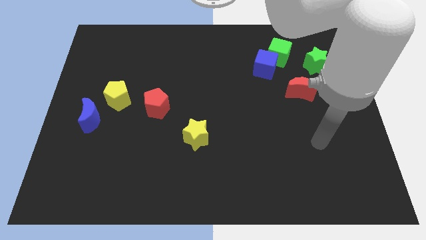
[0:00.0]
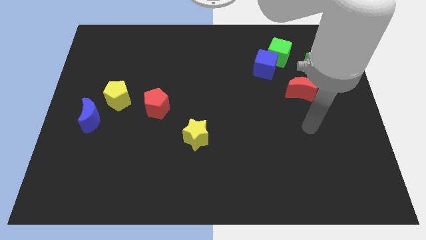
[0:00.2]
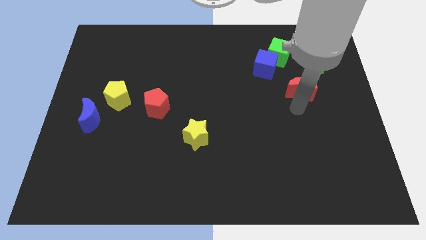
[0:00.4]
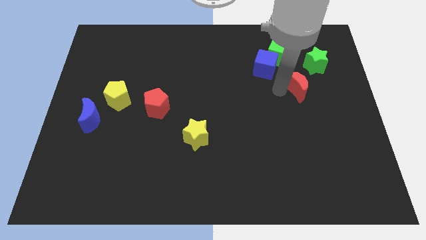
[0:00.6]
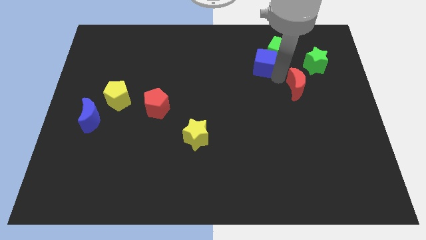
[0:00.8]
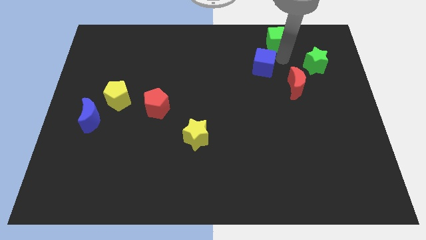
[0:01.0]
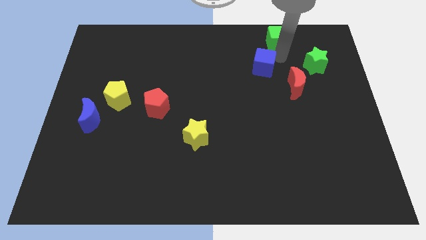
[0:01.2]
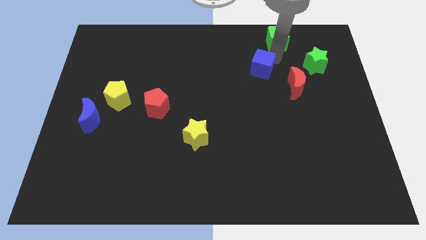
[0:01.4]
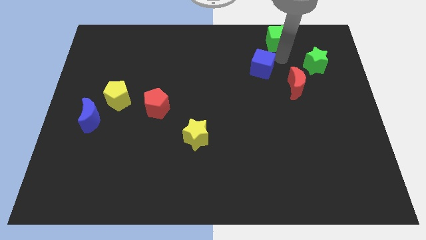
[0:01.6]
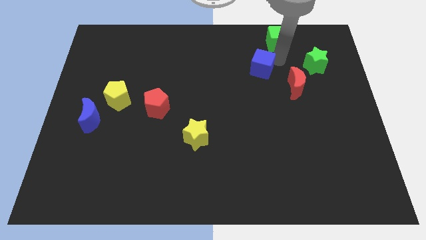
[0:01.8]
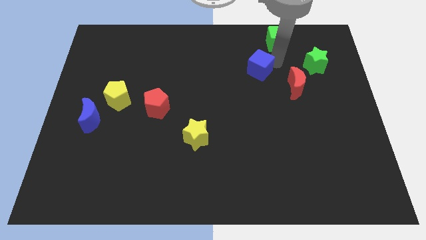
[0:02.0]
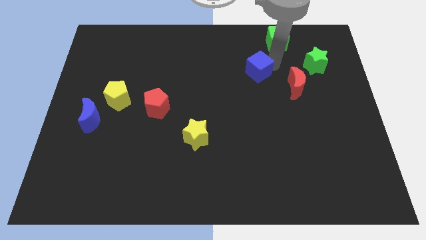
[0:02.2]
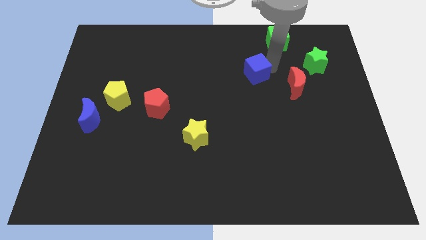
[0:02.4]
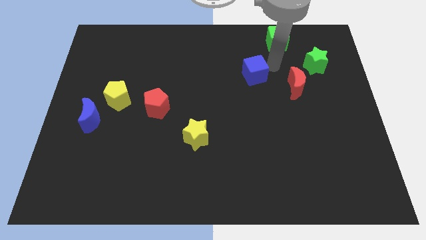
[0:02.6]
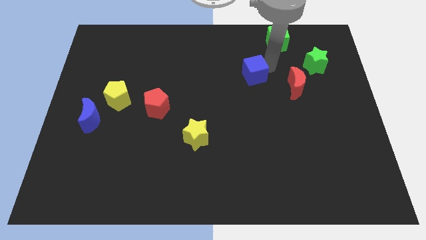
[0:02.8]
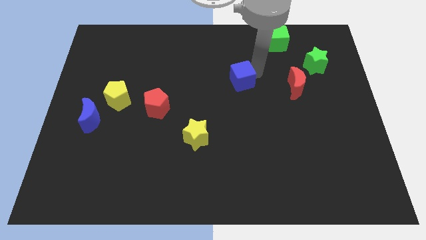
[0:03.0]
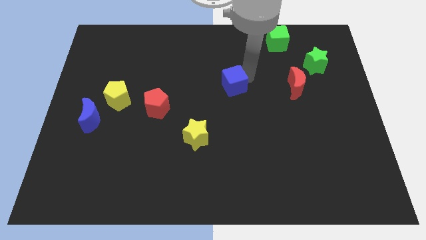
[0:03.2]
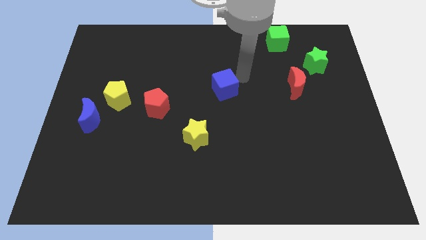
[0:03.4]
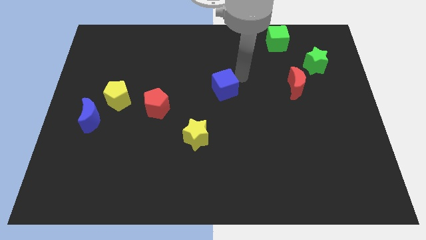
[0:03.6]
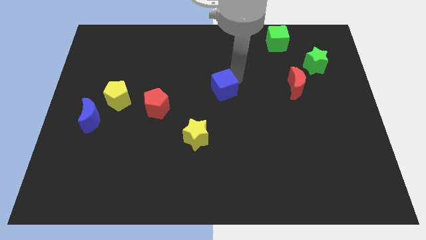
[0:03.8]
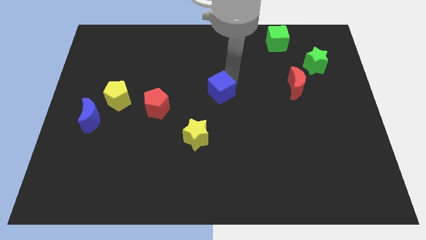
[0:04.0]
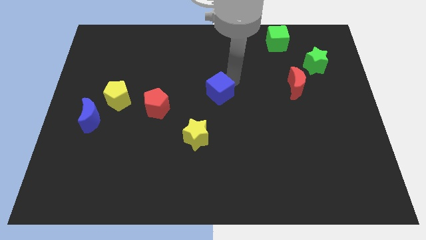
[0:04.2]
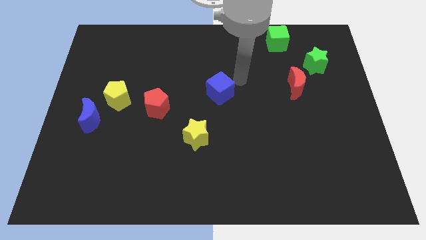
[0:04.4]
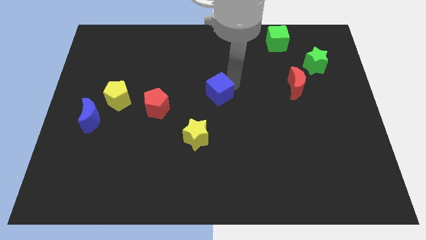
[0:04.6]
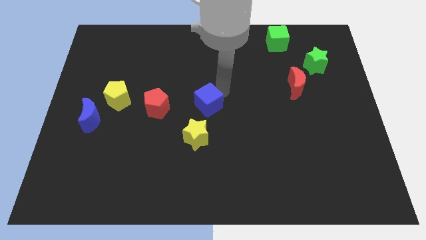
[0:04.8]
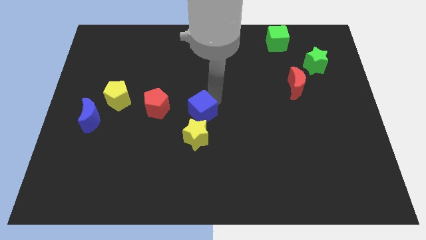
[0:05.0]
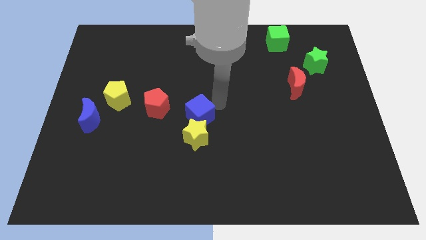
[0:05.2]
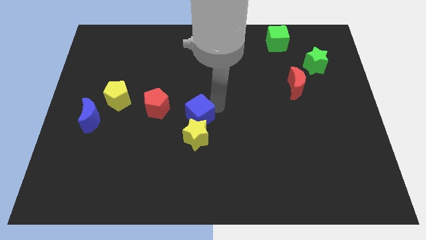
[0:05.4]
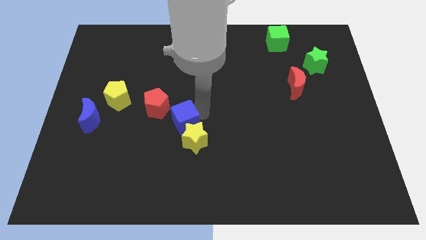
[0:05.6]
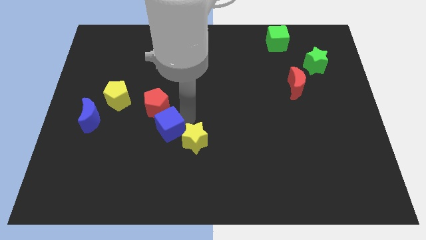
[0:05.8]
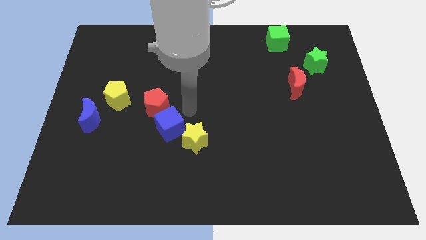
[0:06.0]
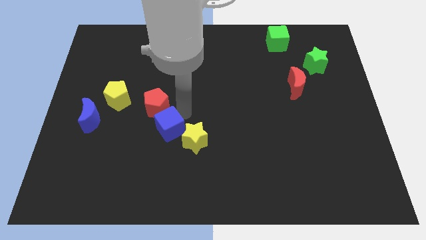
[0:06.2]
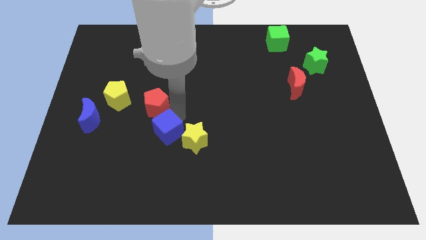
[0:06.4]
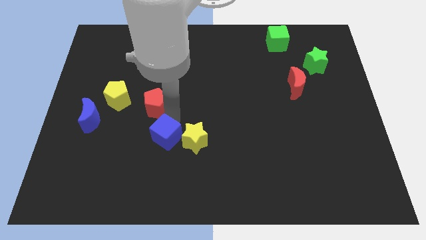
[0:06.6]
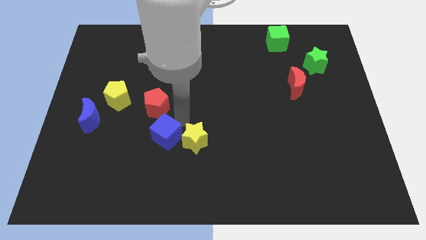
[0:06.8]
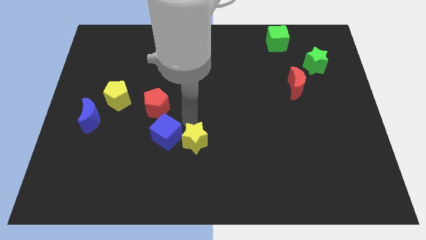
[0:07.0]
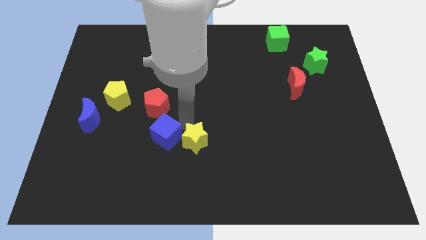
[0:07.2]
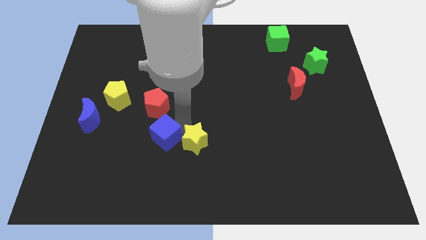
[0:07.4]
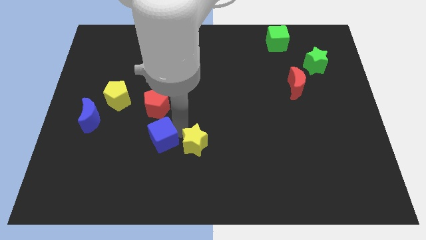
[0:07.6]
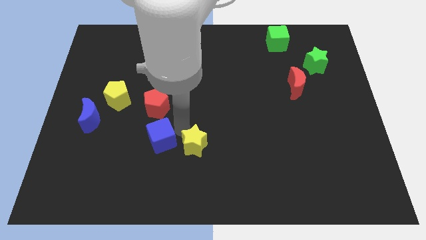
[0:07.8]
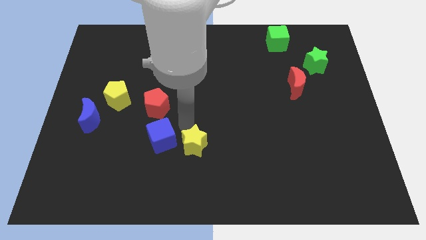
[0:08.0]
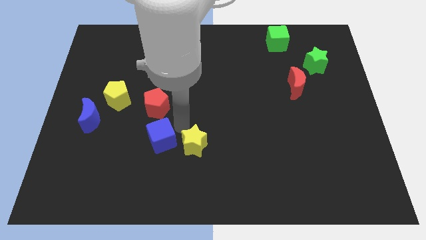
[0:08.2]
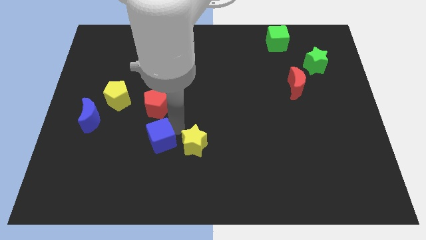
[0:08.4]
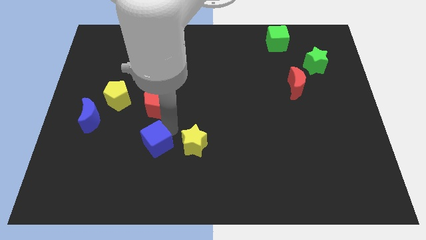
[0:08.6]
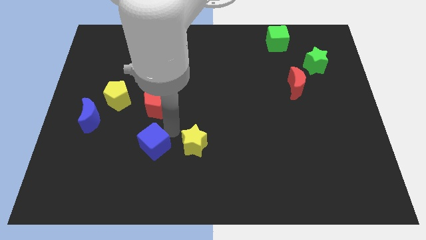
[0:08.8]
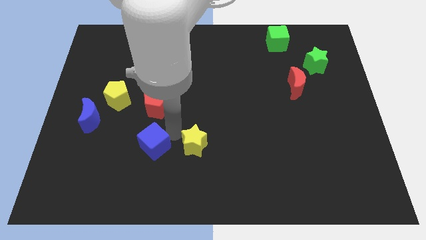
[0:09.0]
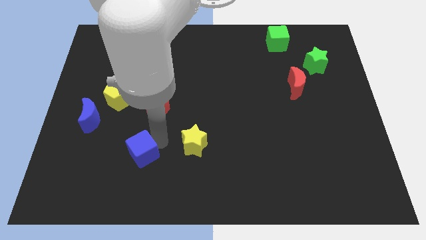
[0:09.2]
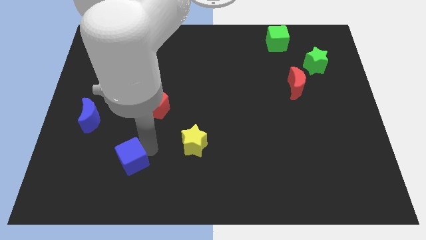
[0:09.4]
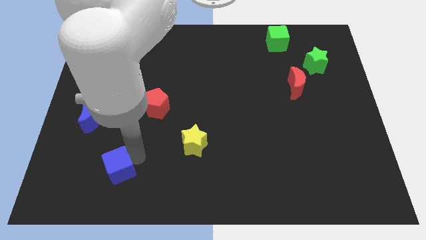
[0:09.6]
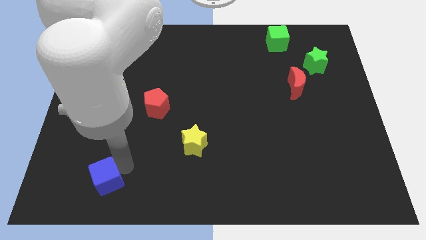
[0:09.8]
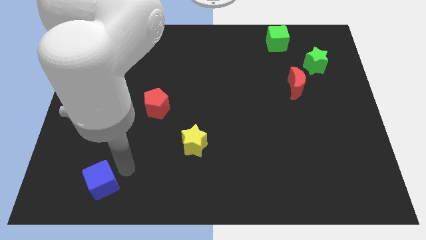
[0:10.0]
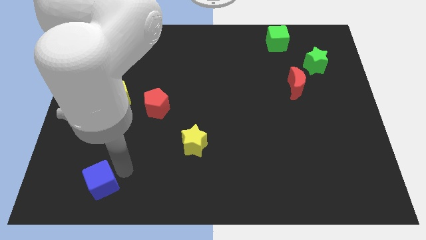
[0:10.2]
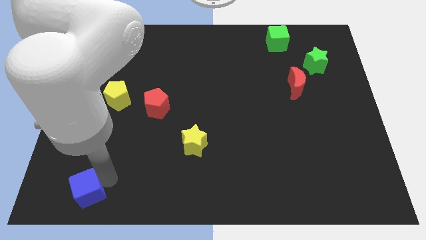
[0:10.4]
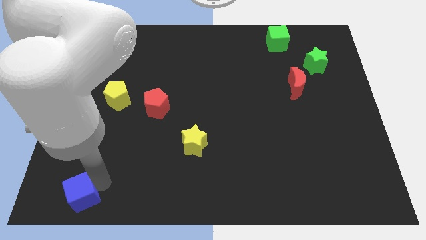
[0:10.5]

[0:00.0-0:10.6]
move the blue cube to the bottom left

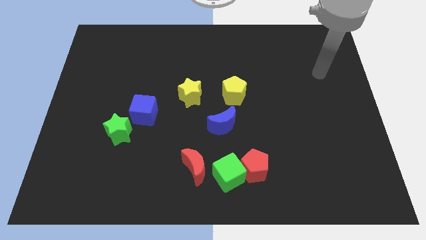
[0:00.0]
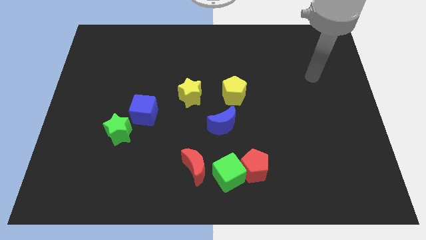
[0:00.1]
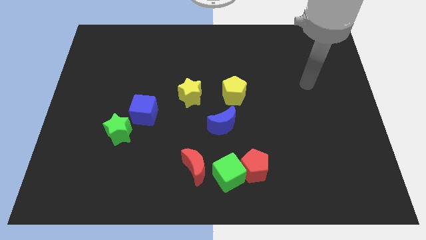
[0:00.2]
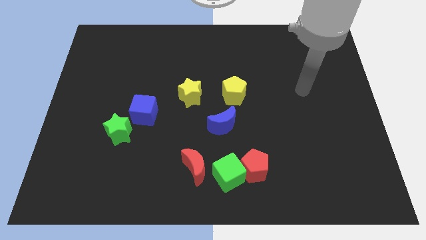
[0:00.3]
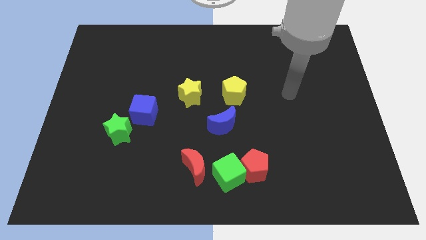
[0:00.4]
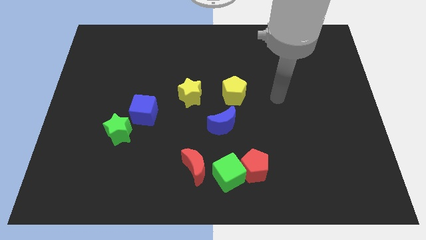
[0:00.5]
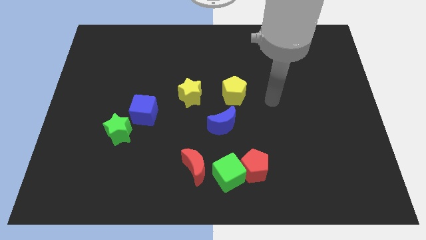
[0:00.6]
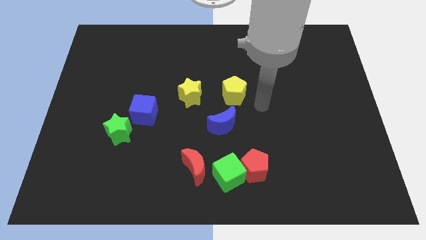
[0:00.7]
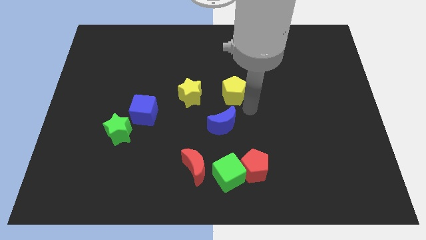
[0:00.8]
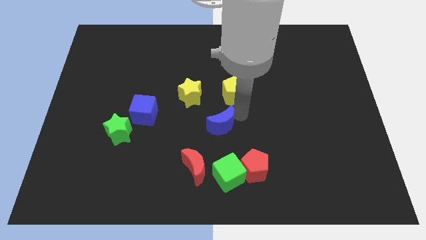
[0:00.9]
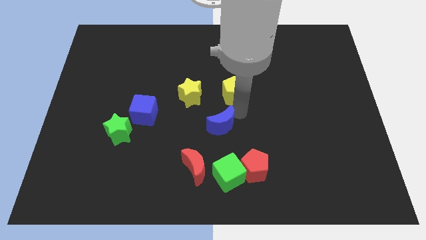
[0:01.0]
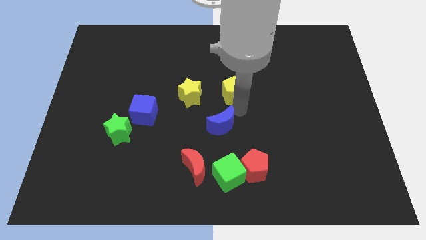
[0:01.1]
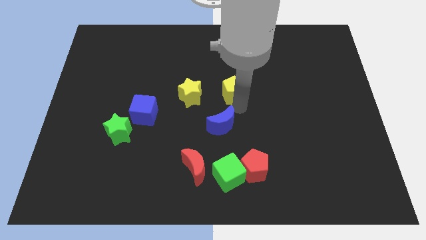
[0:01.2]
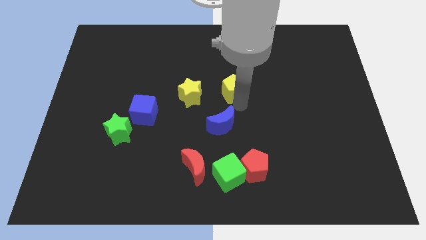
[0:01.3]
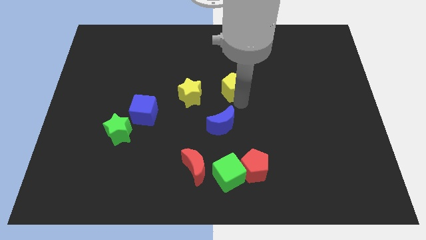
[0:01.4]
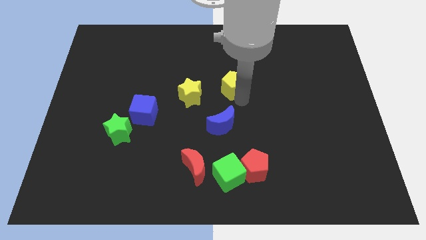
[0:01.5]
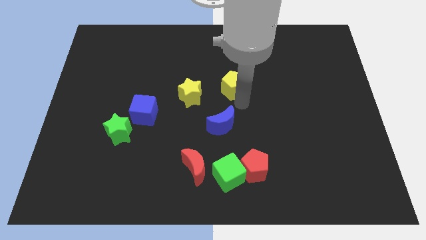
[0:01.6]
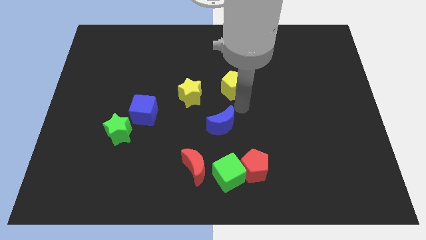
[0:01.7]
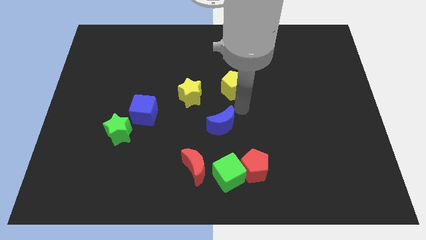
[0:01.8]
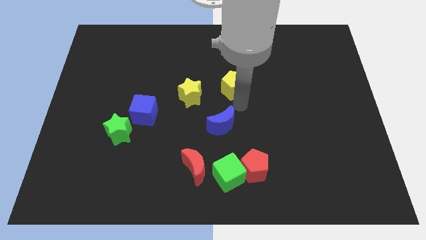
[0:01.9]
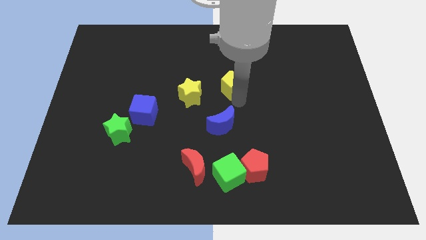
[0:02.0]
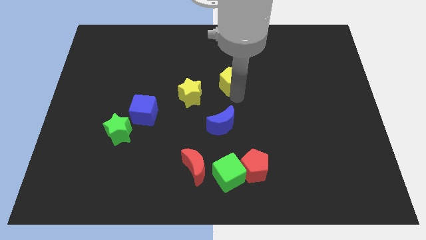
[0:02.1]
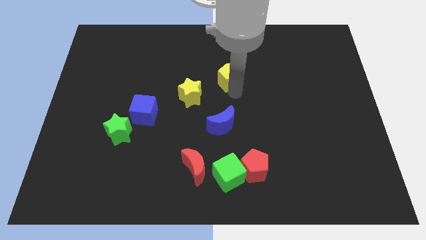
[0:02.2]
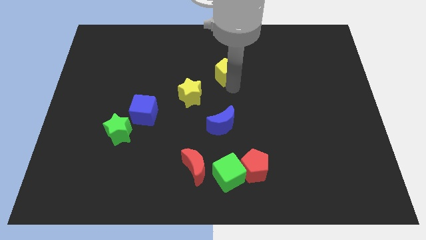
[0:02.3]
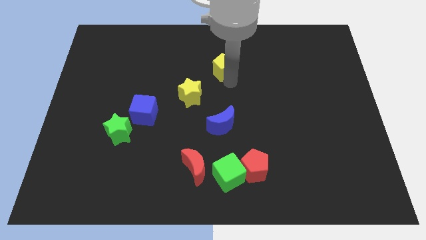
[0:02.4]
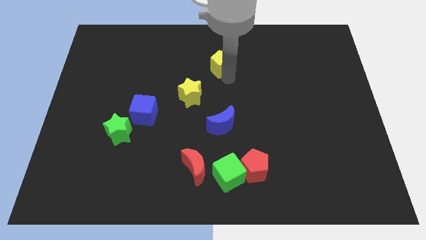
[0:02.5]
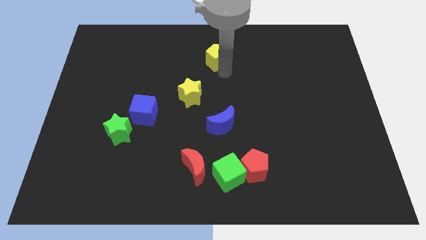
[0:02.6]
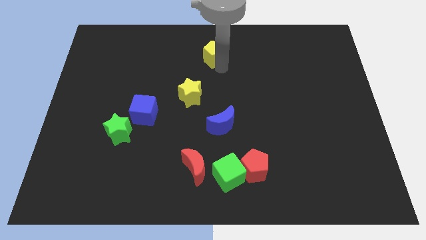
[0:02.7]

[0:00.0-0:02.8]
move the yellow pentagon to the top
